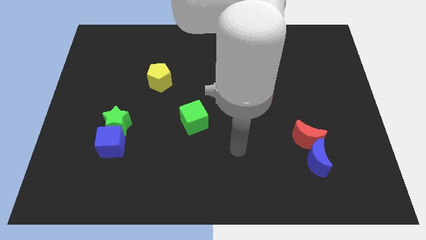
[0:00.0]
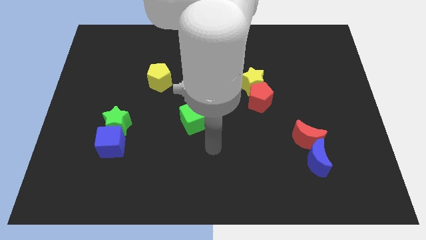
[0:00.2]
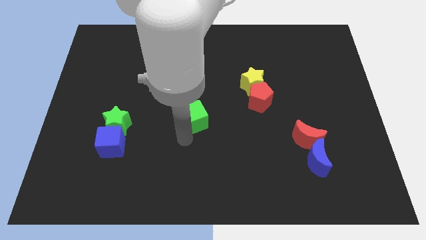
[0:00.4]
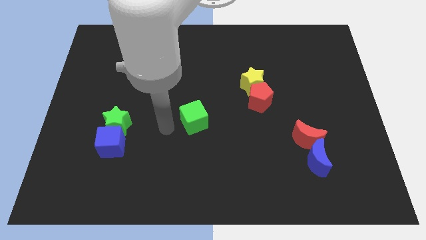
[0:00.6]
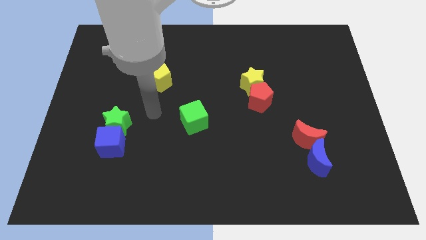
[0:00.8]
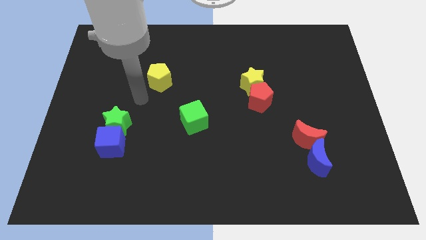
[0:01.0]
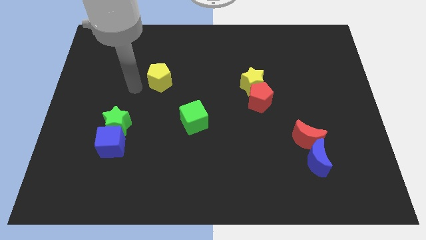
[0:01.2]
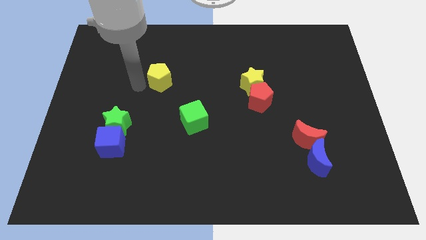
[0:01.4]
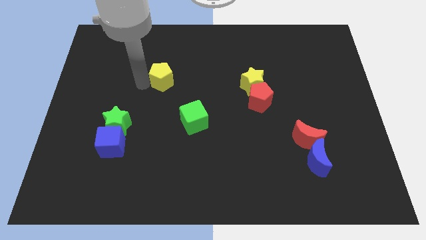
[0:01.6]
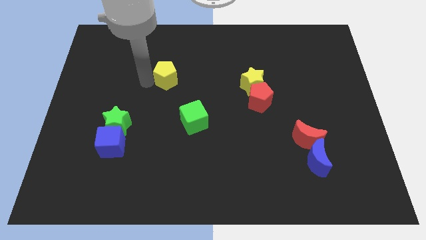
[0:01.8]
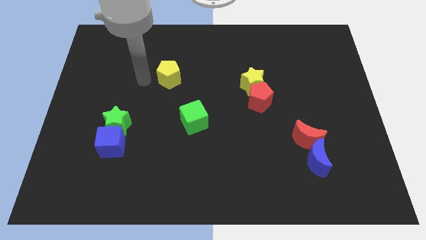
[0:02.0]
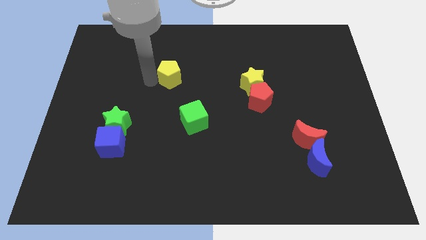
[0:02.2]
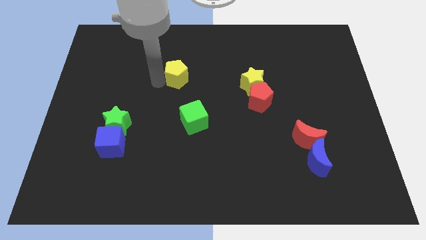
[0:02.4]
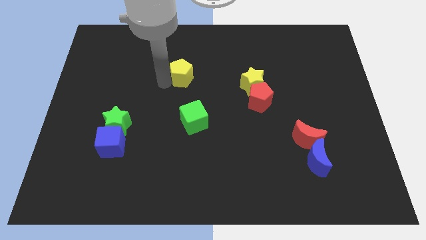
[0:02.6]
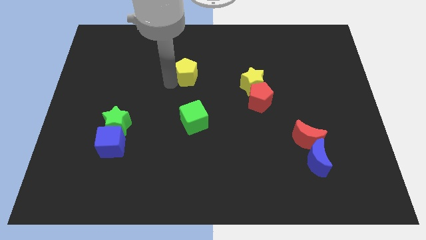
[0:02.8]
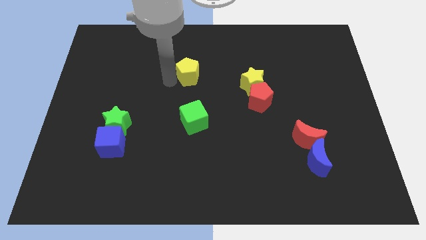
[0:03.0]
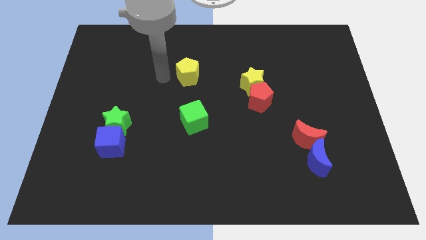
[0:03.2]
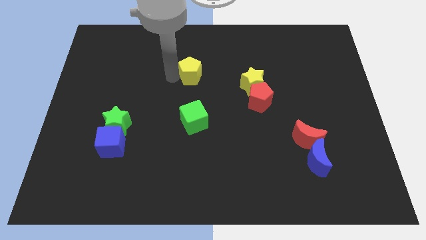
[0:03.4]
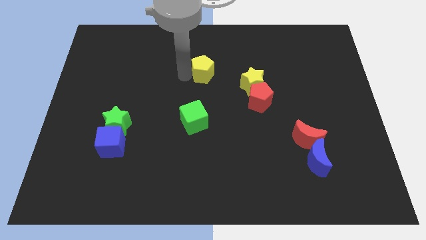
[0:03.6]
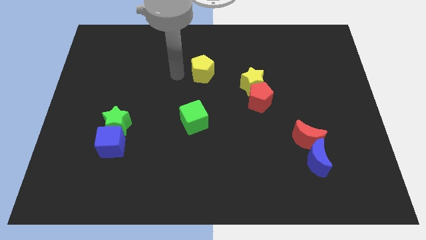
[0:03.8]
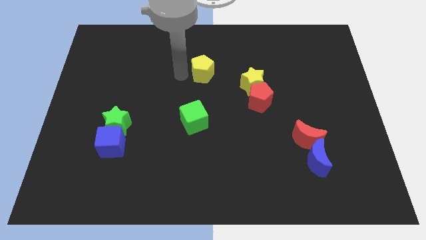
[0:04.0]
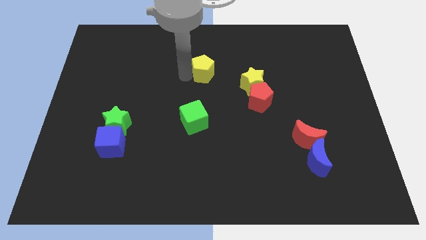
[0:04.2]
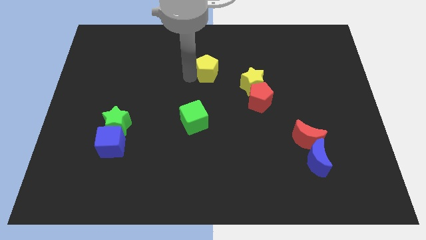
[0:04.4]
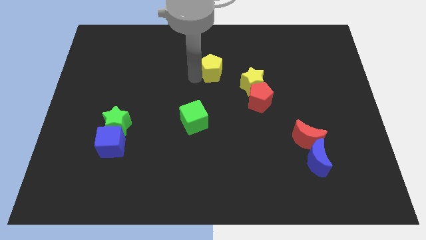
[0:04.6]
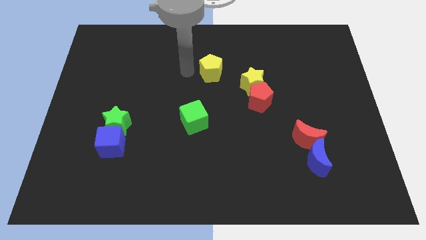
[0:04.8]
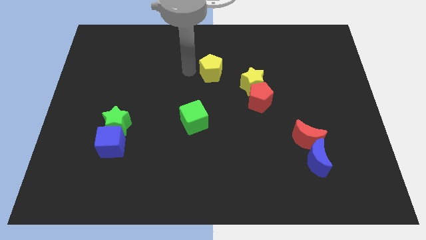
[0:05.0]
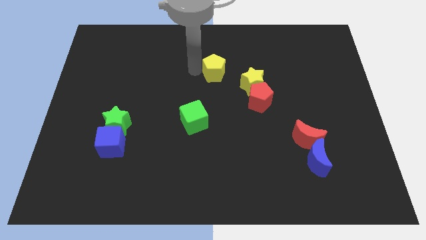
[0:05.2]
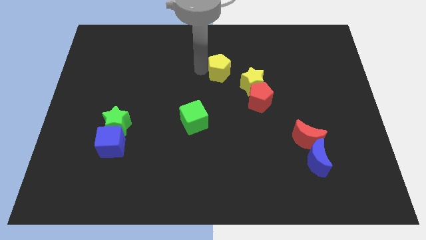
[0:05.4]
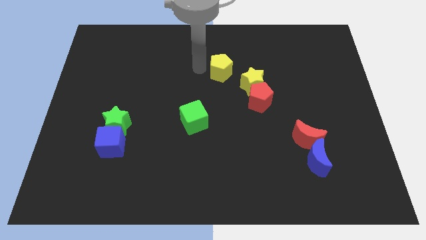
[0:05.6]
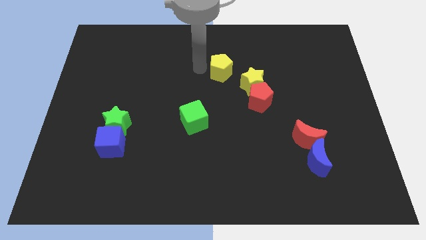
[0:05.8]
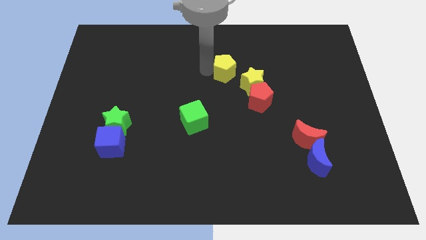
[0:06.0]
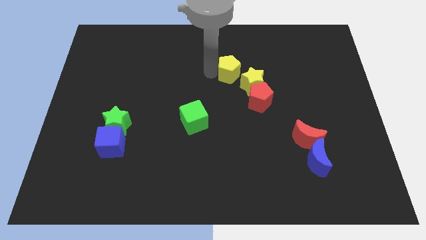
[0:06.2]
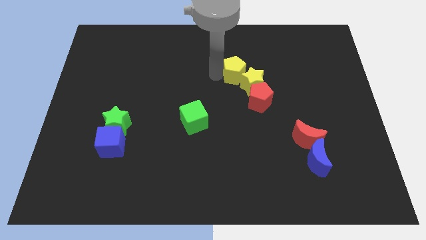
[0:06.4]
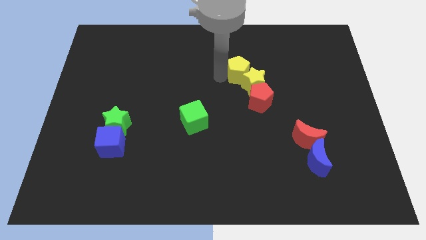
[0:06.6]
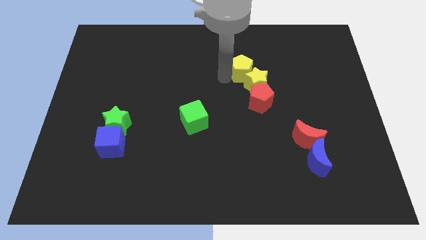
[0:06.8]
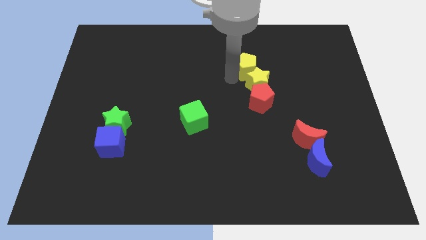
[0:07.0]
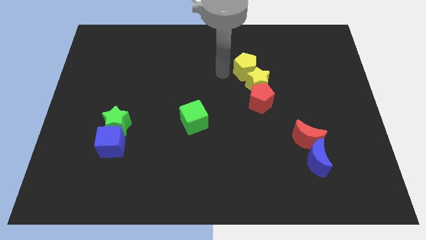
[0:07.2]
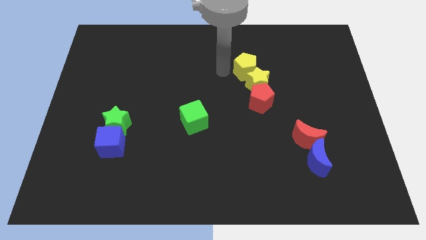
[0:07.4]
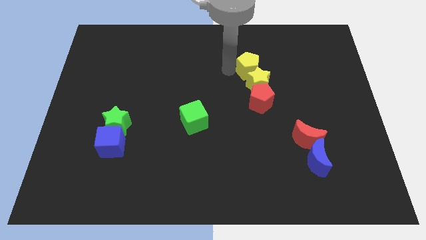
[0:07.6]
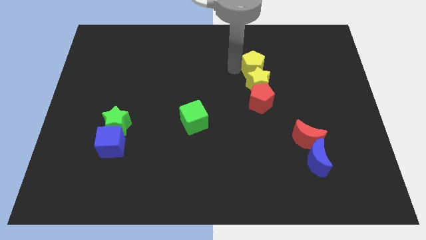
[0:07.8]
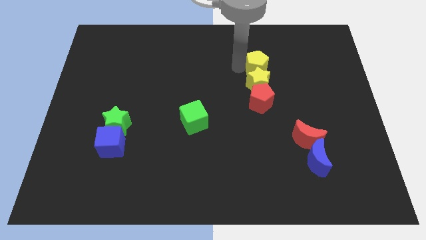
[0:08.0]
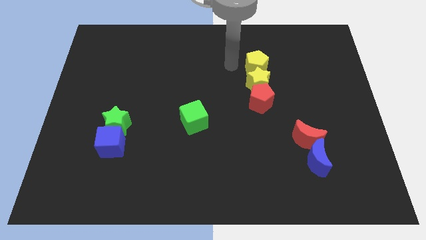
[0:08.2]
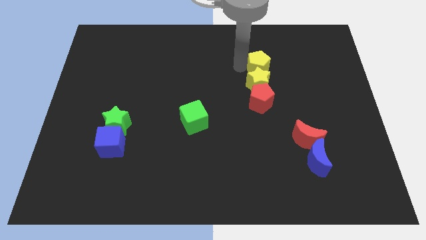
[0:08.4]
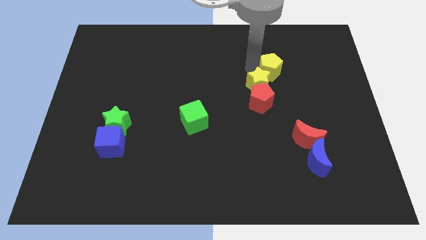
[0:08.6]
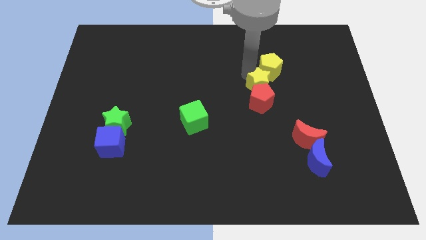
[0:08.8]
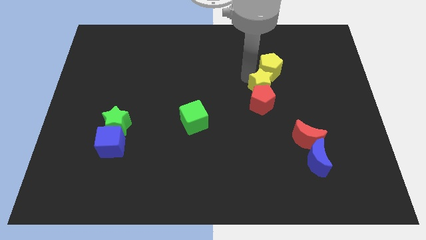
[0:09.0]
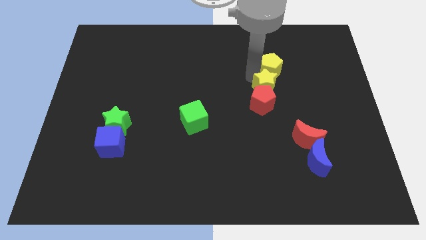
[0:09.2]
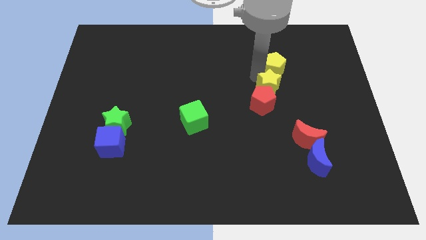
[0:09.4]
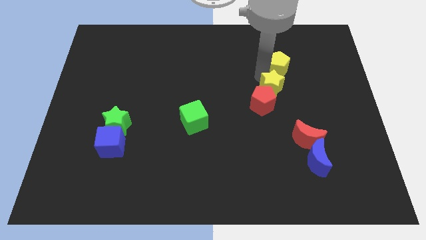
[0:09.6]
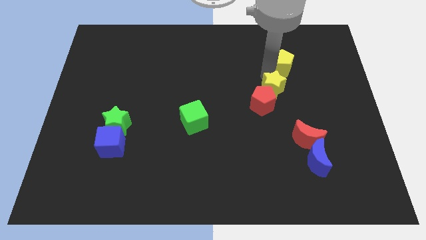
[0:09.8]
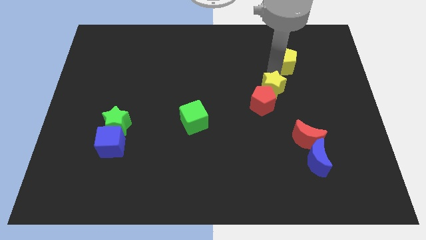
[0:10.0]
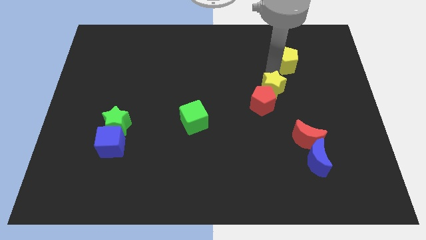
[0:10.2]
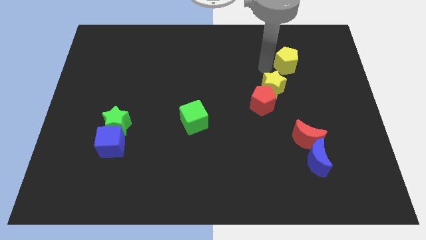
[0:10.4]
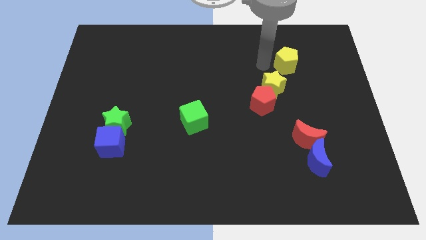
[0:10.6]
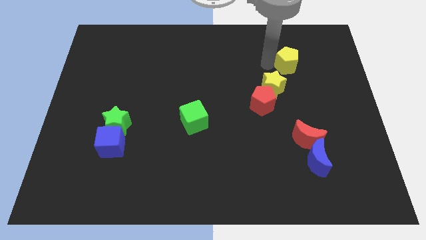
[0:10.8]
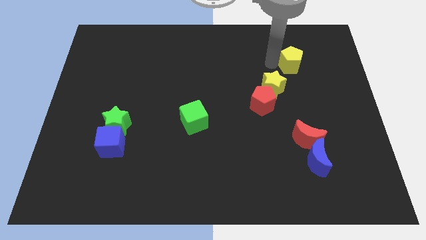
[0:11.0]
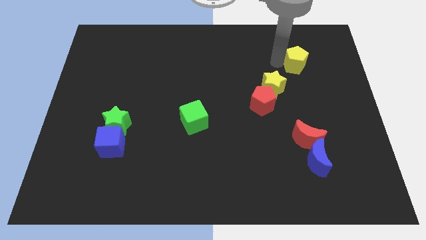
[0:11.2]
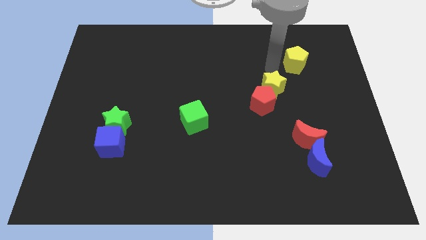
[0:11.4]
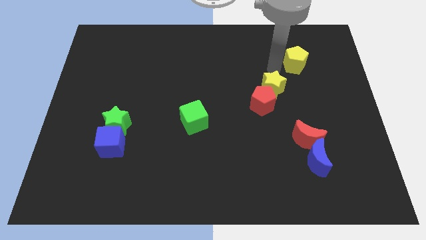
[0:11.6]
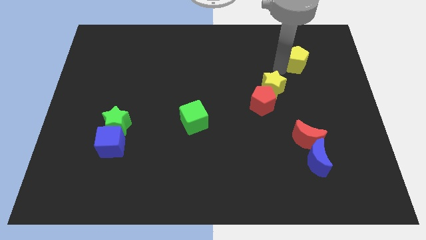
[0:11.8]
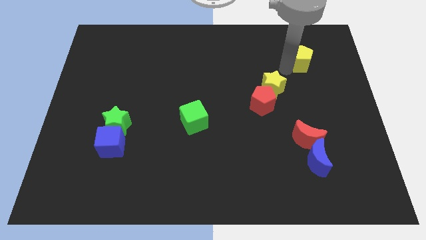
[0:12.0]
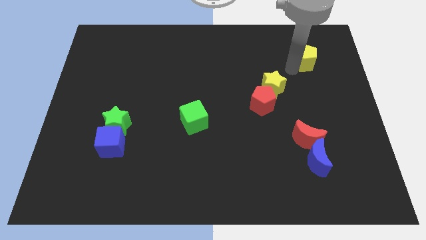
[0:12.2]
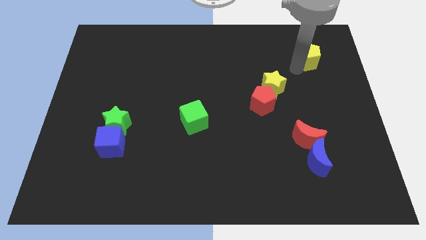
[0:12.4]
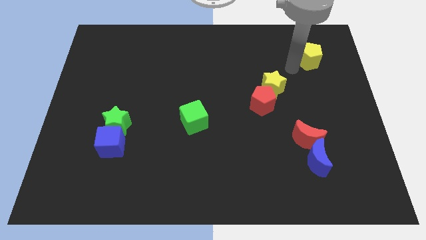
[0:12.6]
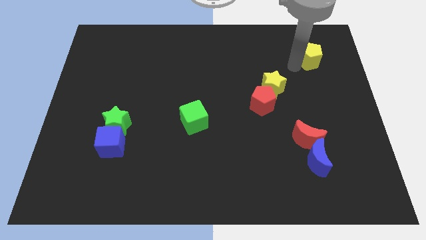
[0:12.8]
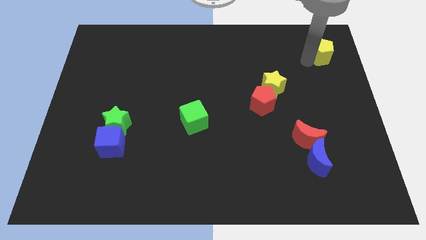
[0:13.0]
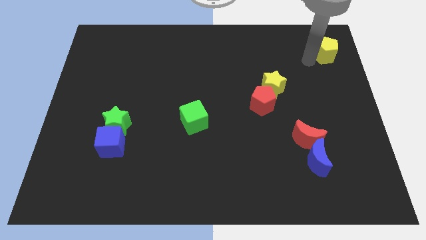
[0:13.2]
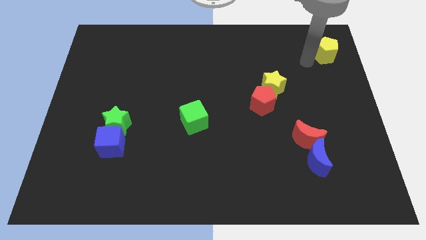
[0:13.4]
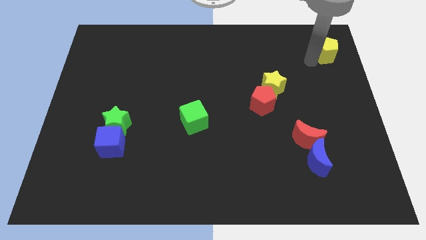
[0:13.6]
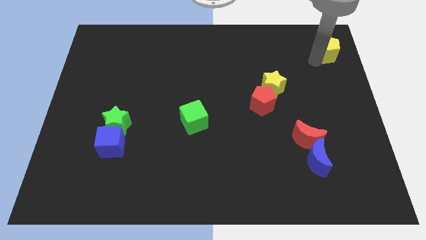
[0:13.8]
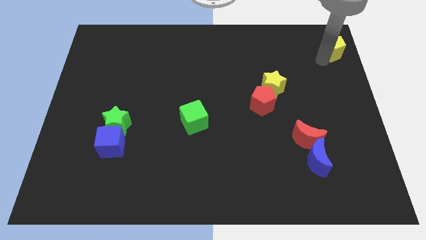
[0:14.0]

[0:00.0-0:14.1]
move the yellow pentagon to the top right corner

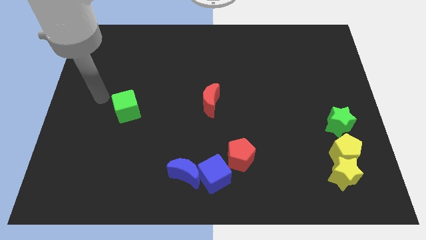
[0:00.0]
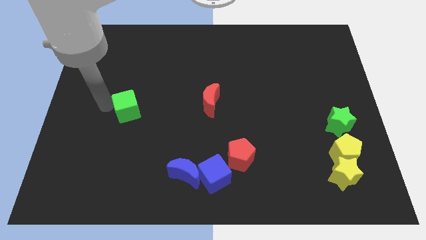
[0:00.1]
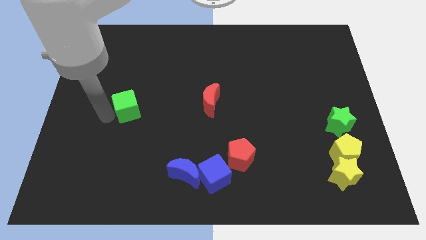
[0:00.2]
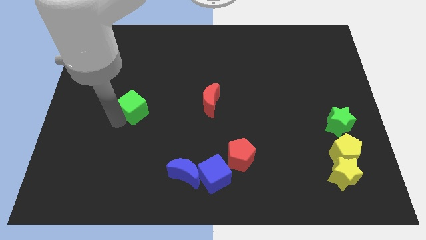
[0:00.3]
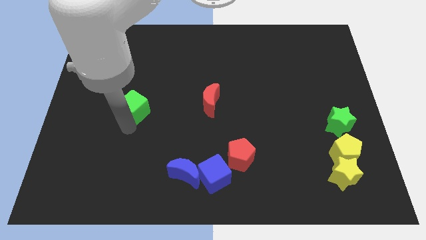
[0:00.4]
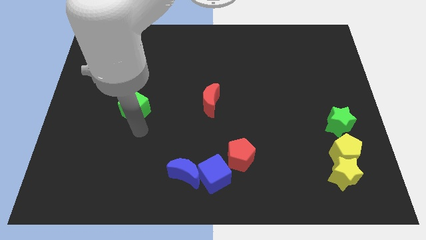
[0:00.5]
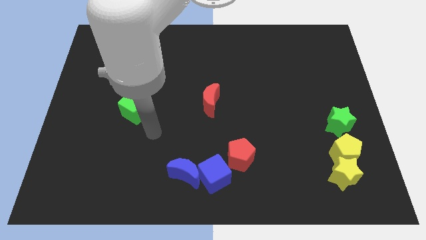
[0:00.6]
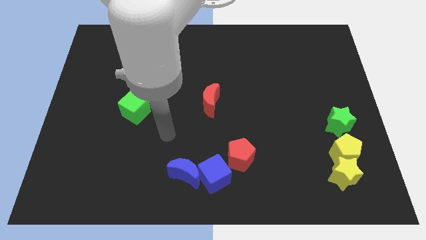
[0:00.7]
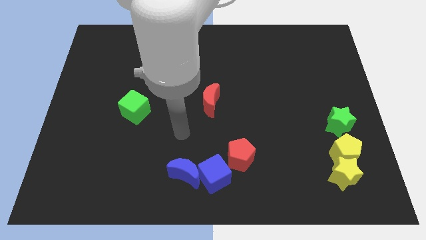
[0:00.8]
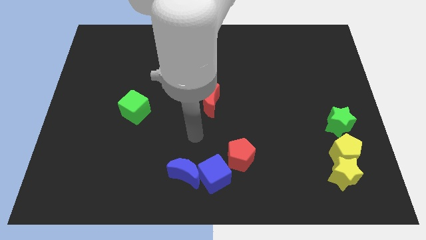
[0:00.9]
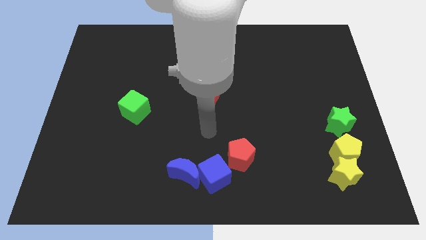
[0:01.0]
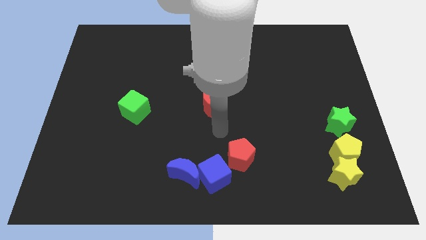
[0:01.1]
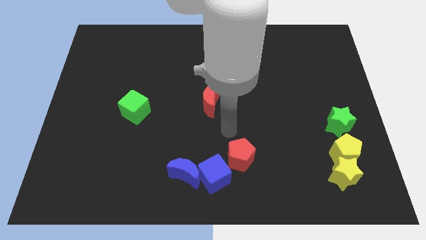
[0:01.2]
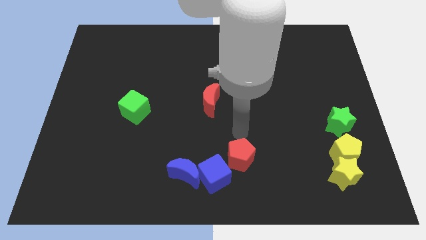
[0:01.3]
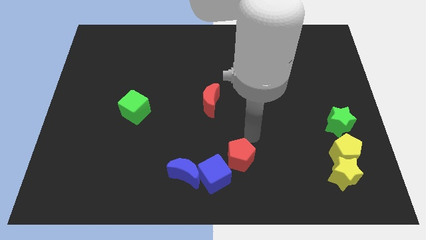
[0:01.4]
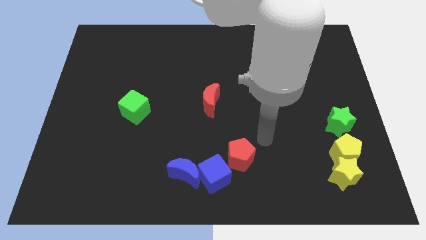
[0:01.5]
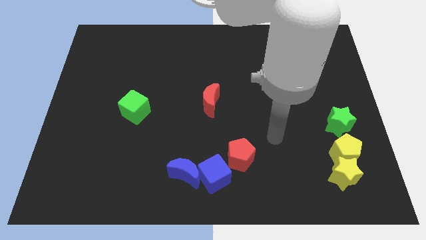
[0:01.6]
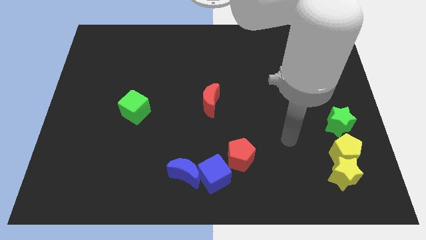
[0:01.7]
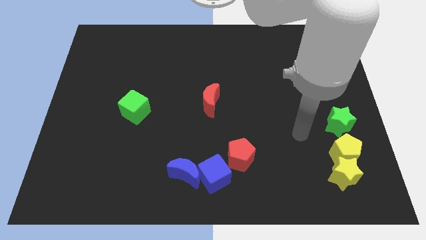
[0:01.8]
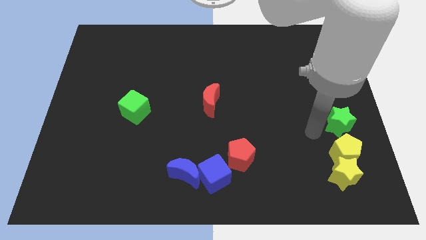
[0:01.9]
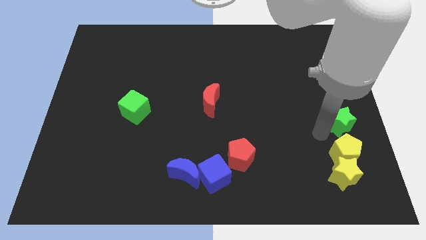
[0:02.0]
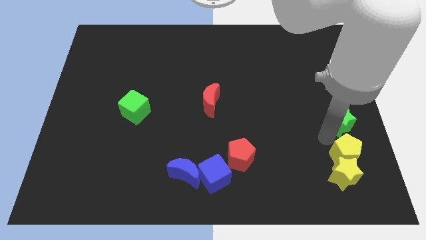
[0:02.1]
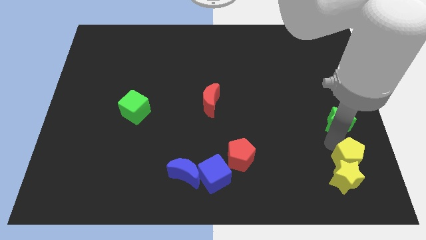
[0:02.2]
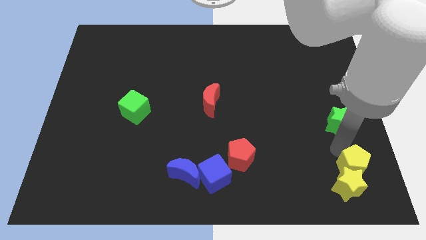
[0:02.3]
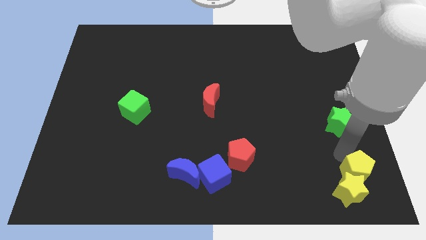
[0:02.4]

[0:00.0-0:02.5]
move the yellow pentagon to the bottom right of the board
